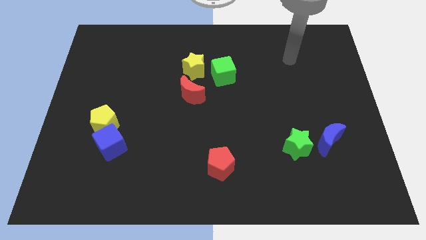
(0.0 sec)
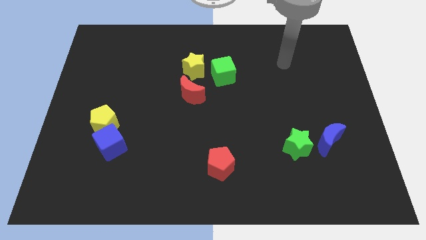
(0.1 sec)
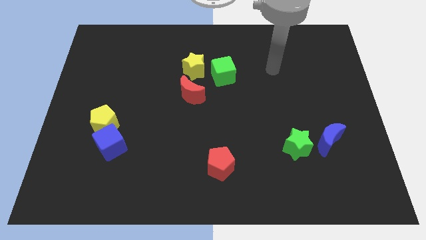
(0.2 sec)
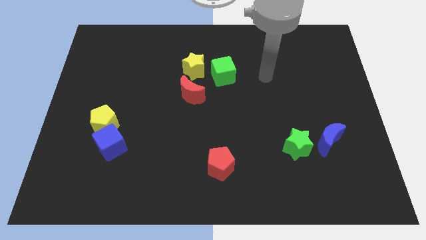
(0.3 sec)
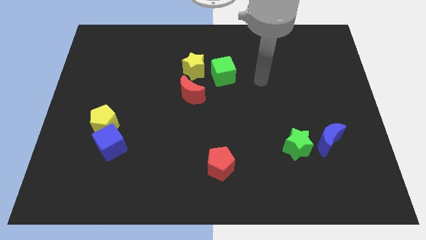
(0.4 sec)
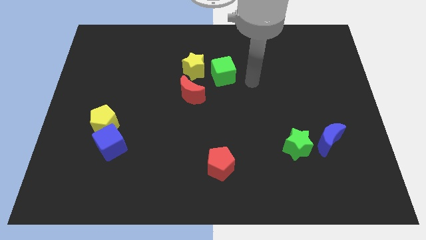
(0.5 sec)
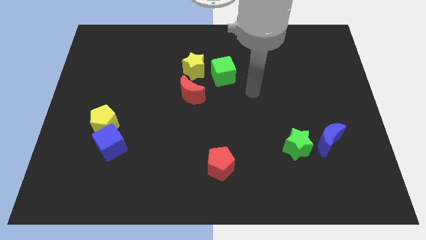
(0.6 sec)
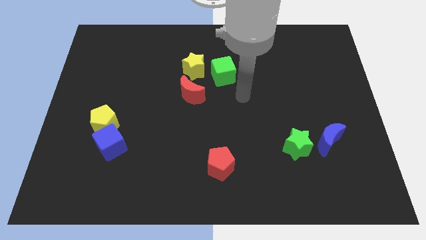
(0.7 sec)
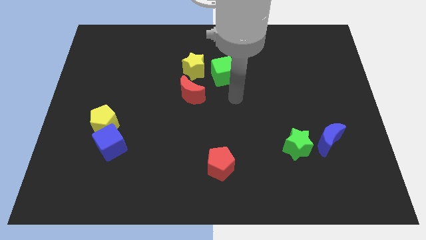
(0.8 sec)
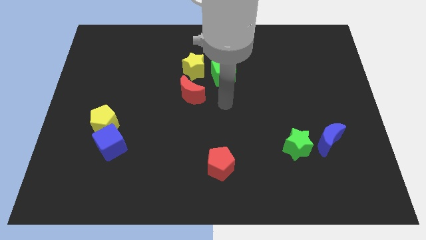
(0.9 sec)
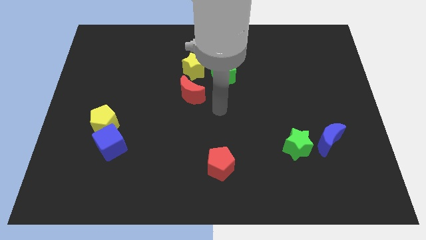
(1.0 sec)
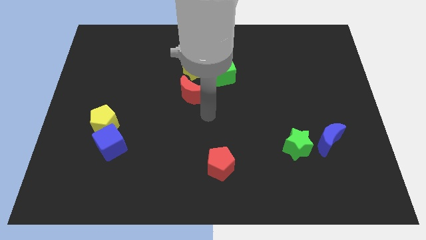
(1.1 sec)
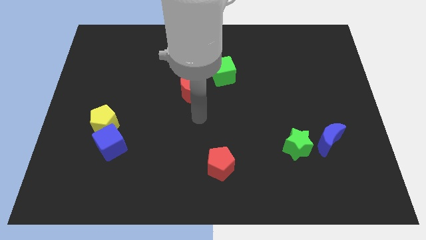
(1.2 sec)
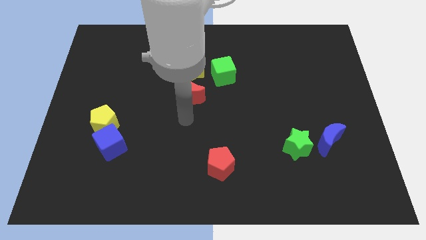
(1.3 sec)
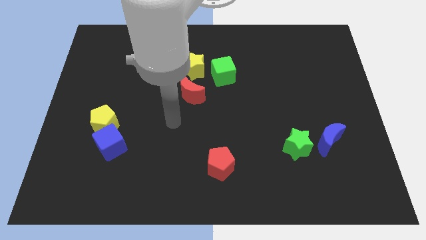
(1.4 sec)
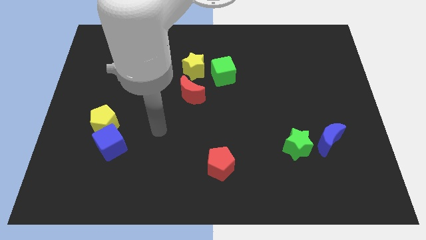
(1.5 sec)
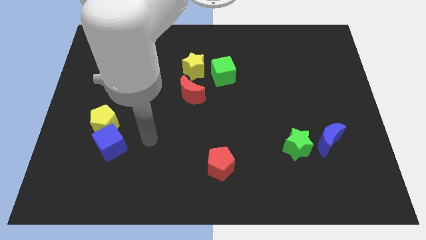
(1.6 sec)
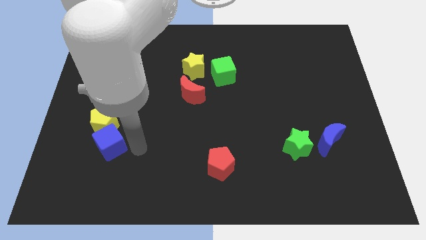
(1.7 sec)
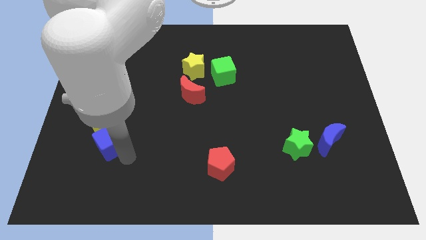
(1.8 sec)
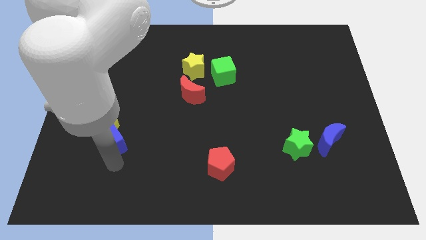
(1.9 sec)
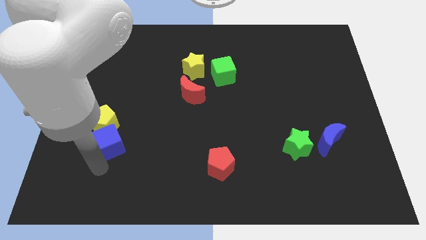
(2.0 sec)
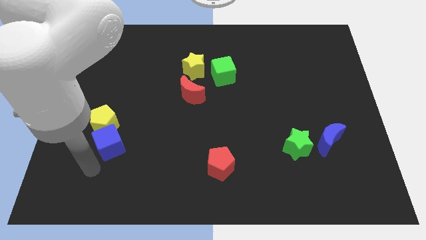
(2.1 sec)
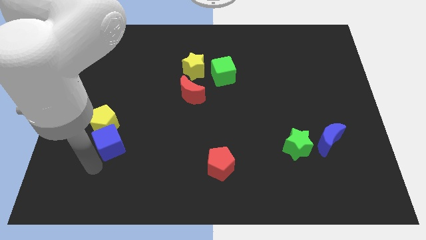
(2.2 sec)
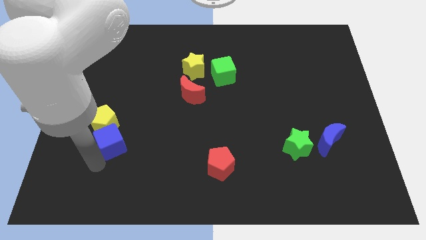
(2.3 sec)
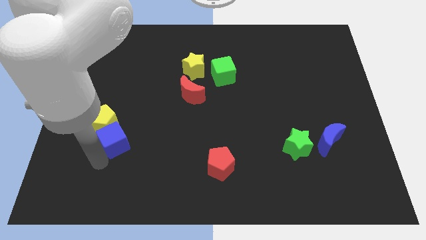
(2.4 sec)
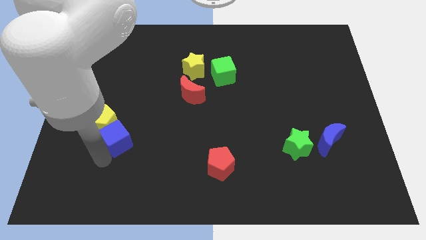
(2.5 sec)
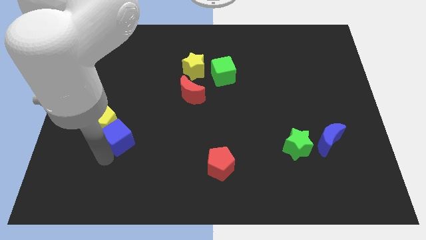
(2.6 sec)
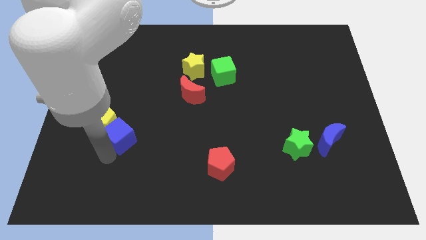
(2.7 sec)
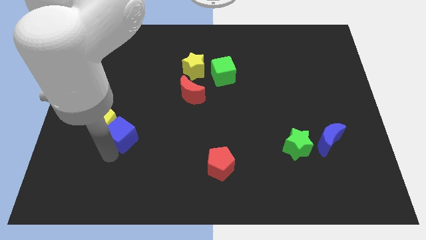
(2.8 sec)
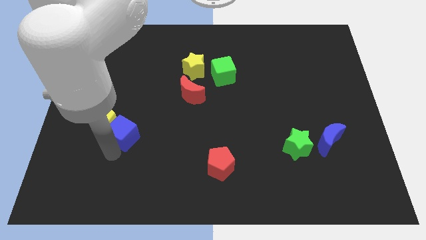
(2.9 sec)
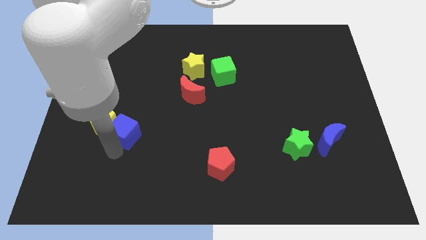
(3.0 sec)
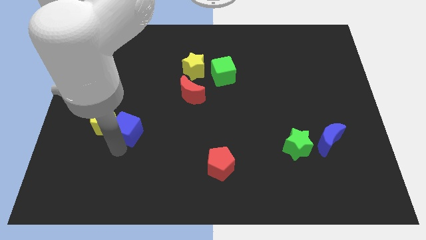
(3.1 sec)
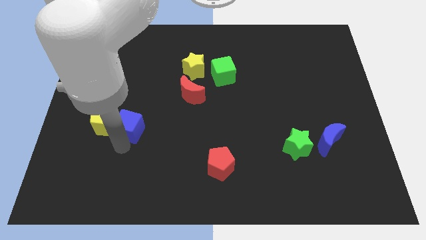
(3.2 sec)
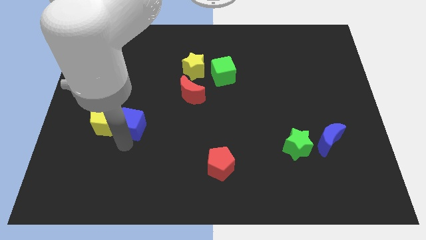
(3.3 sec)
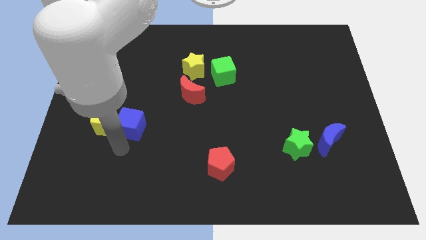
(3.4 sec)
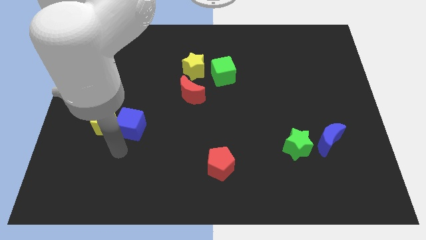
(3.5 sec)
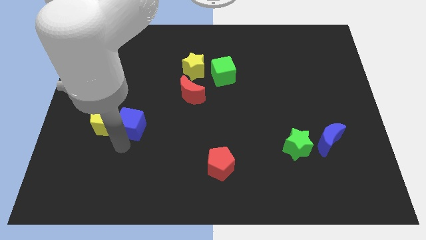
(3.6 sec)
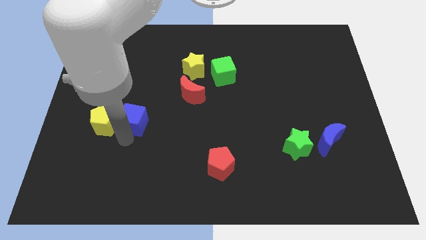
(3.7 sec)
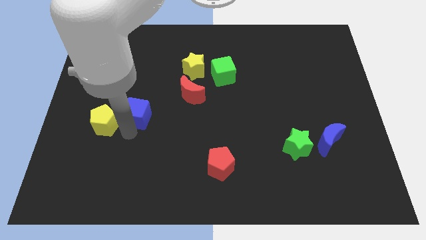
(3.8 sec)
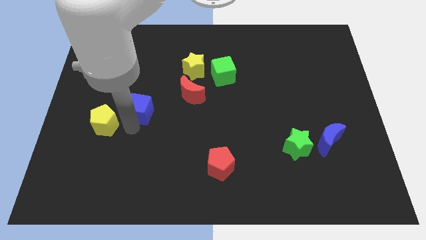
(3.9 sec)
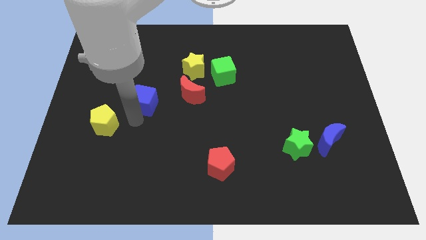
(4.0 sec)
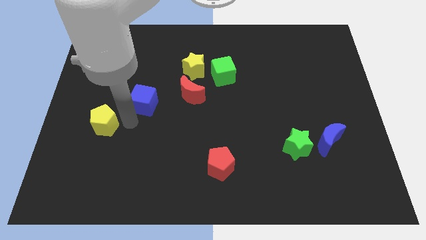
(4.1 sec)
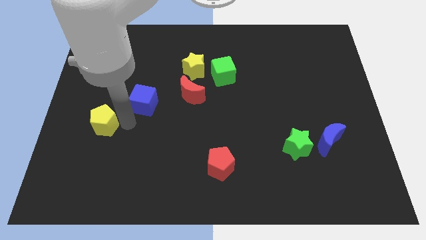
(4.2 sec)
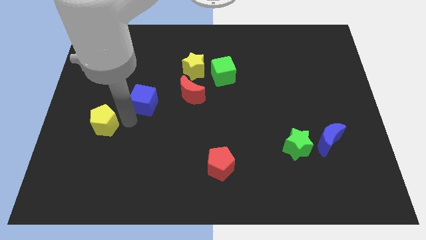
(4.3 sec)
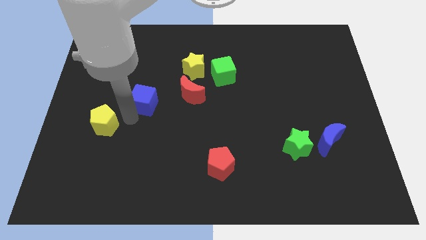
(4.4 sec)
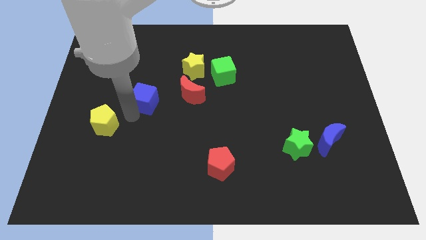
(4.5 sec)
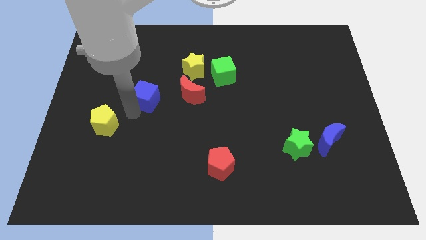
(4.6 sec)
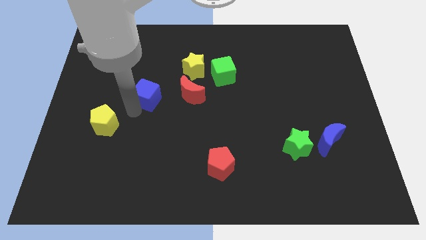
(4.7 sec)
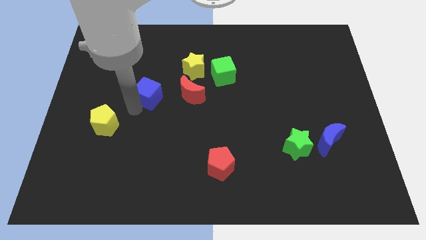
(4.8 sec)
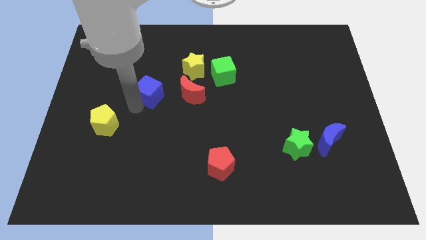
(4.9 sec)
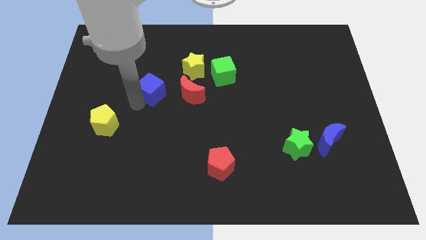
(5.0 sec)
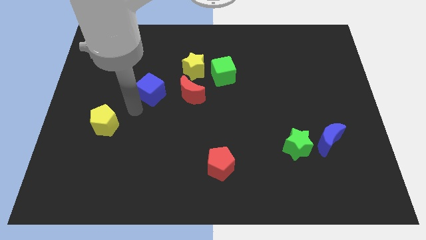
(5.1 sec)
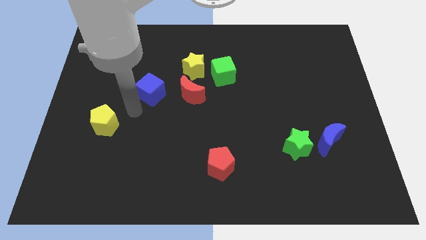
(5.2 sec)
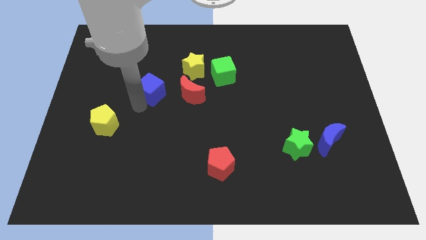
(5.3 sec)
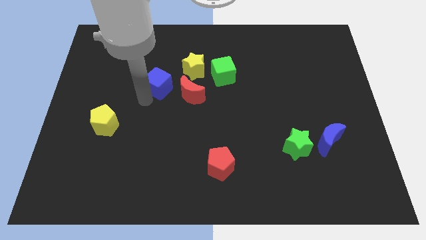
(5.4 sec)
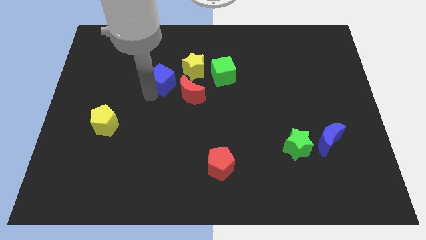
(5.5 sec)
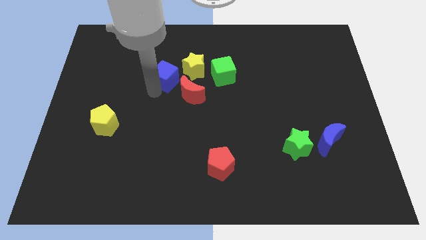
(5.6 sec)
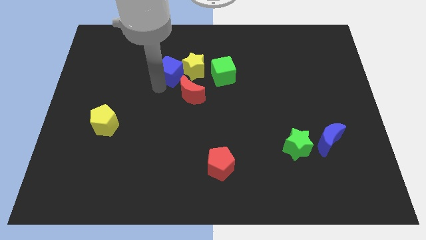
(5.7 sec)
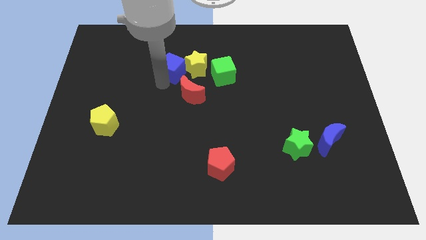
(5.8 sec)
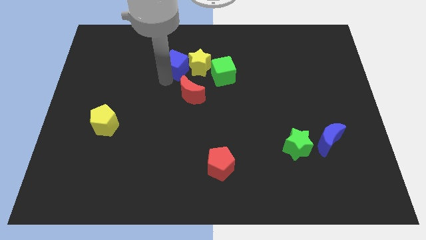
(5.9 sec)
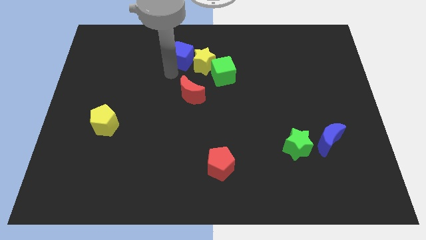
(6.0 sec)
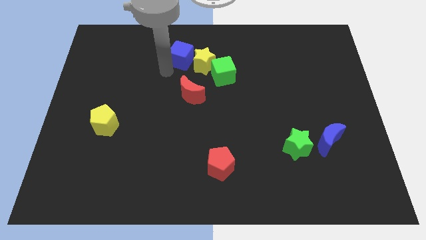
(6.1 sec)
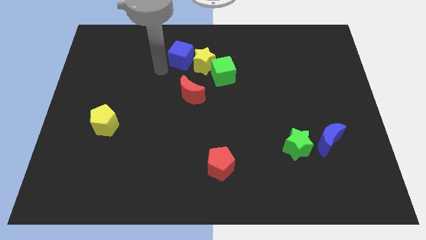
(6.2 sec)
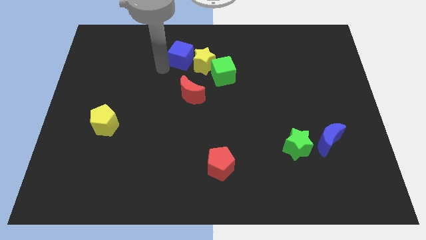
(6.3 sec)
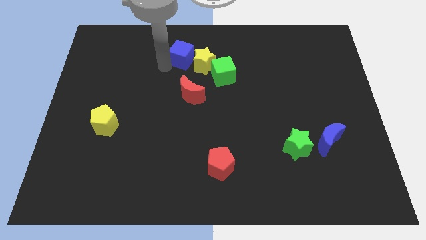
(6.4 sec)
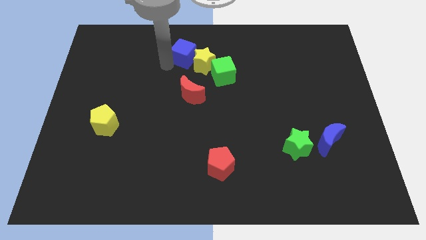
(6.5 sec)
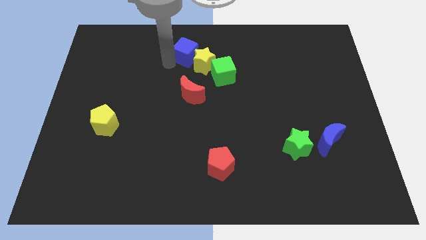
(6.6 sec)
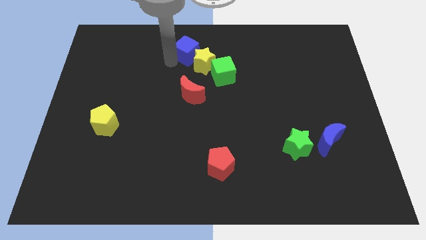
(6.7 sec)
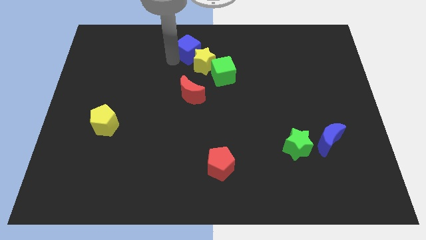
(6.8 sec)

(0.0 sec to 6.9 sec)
push the blue cube to the top
